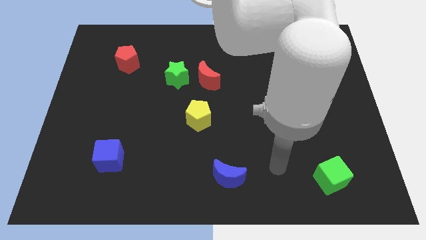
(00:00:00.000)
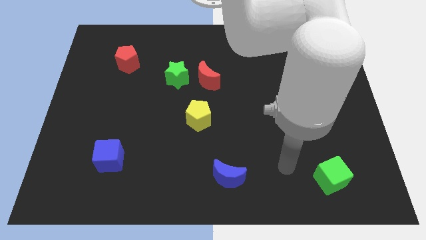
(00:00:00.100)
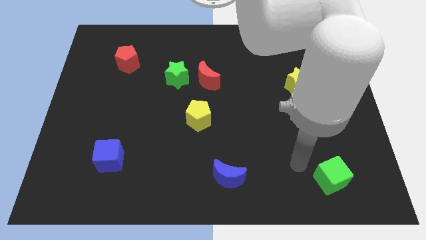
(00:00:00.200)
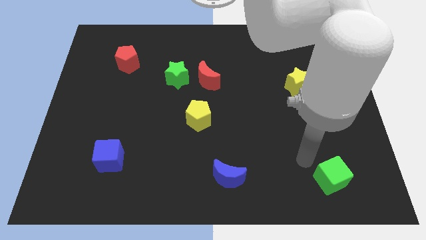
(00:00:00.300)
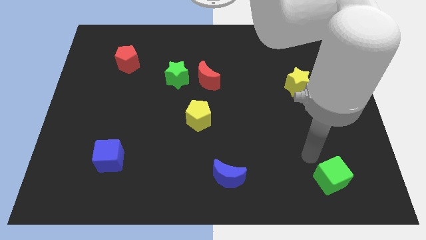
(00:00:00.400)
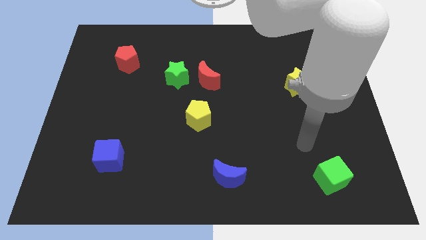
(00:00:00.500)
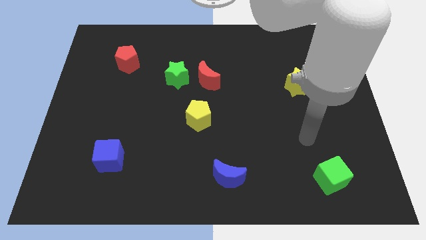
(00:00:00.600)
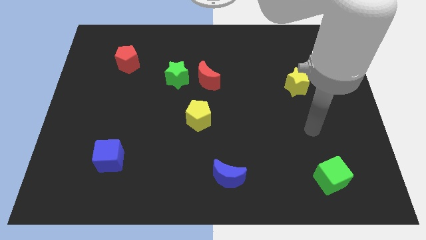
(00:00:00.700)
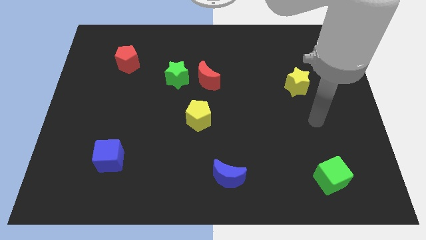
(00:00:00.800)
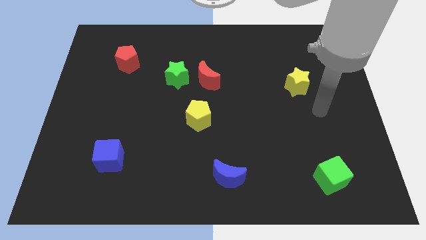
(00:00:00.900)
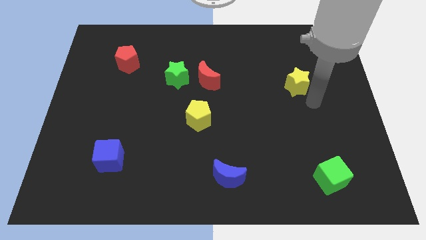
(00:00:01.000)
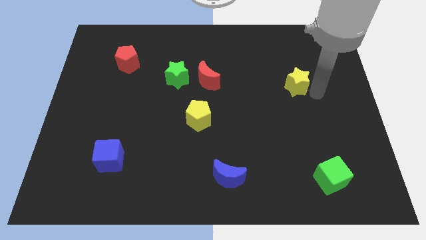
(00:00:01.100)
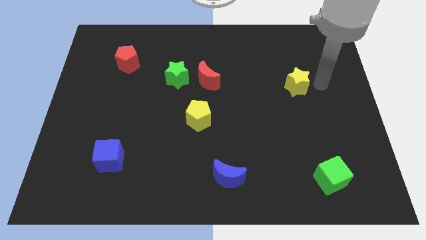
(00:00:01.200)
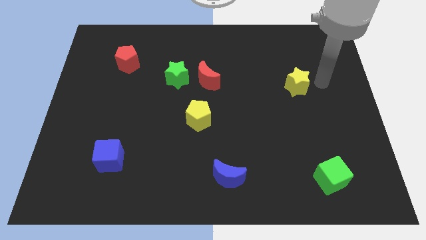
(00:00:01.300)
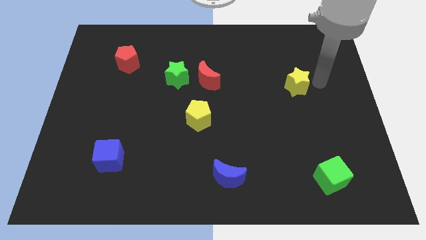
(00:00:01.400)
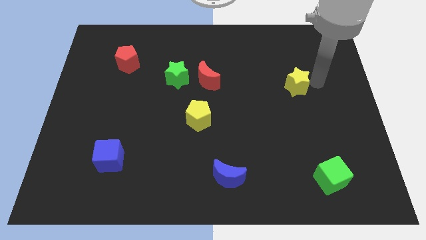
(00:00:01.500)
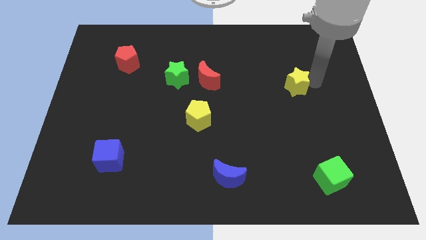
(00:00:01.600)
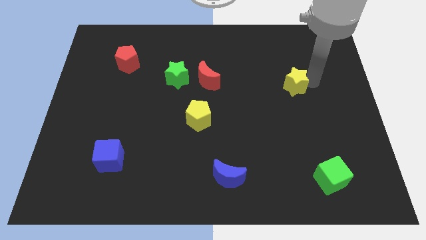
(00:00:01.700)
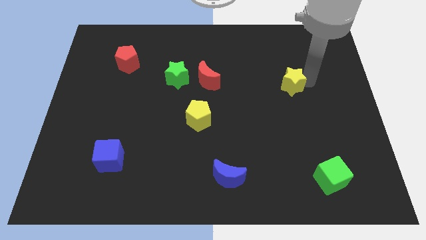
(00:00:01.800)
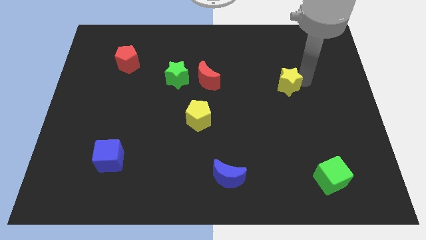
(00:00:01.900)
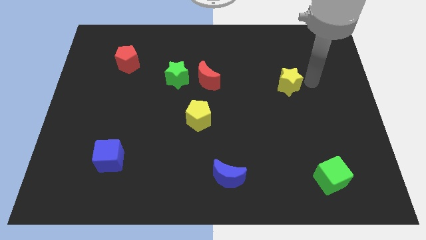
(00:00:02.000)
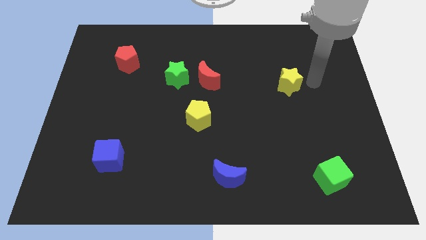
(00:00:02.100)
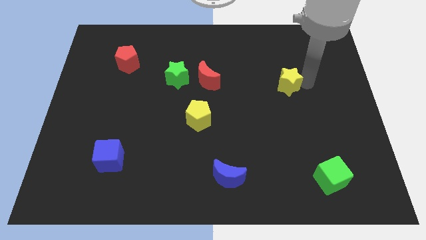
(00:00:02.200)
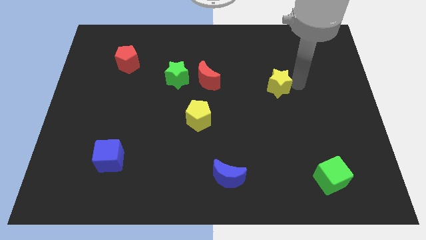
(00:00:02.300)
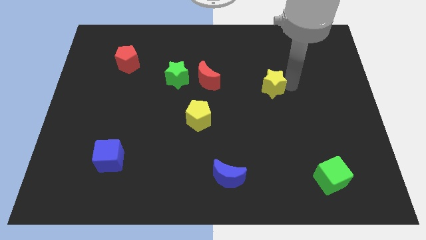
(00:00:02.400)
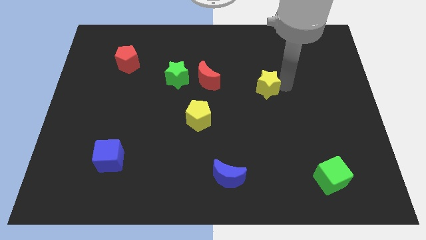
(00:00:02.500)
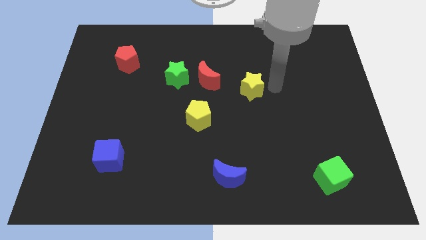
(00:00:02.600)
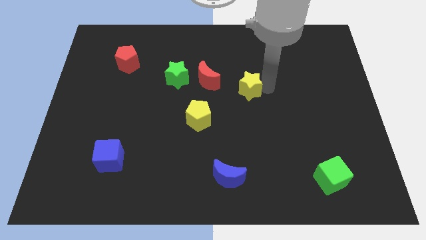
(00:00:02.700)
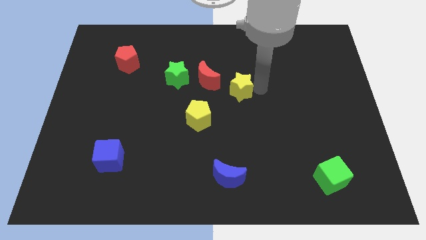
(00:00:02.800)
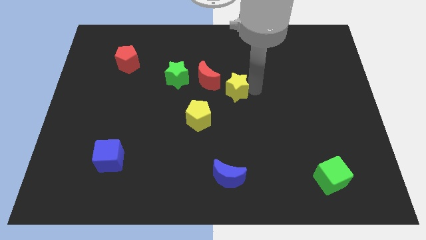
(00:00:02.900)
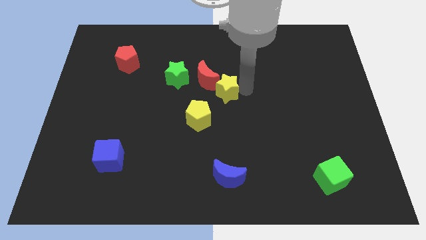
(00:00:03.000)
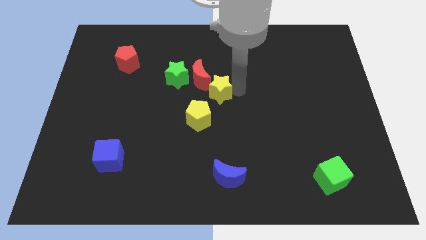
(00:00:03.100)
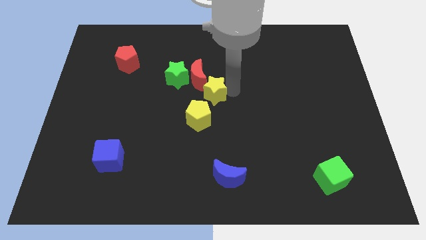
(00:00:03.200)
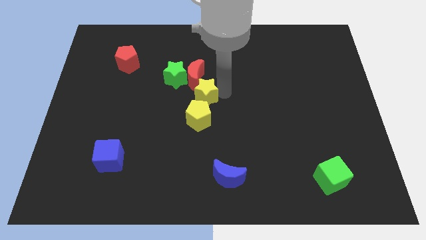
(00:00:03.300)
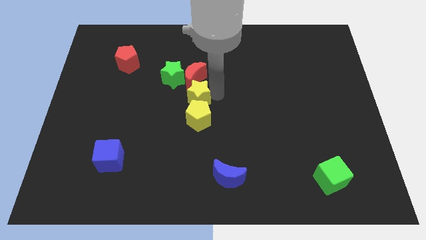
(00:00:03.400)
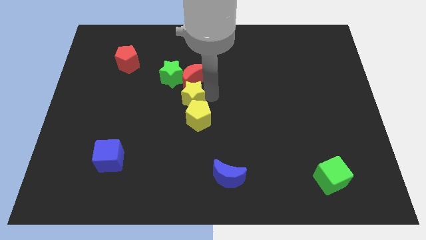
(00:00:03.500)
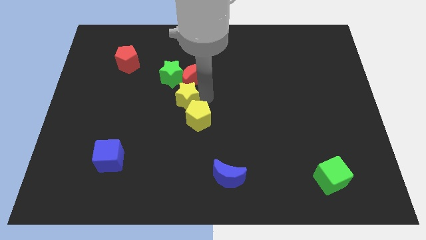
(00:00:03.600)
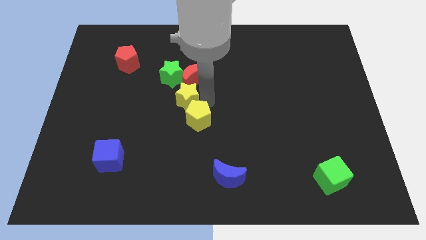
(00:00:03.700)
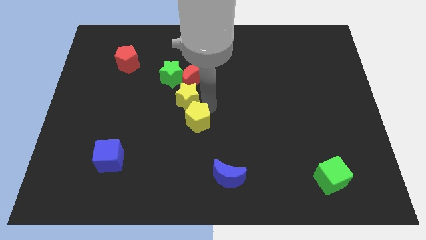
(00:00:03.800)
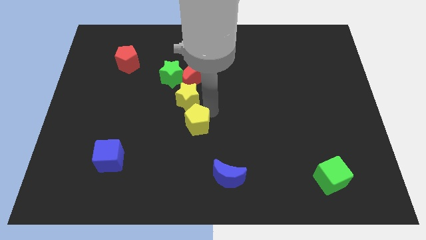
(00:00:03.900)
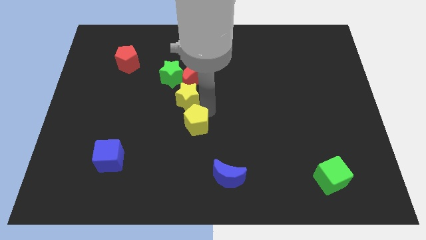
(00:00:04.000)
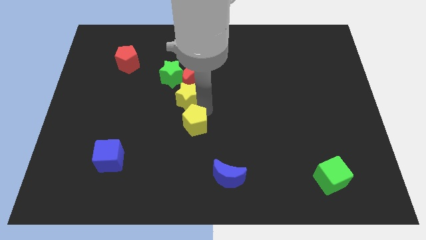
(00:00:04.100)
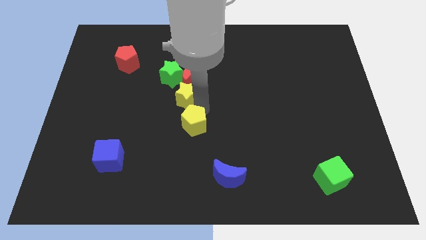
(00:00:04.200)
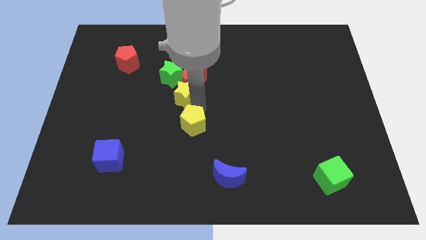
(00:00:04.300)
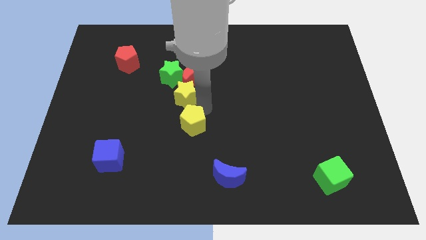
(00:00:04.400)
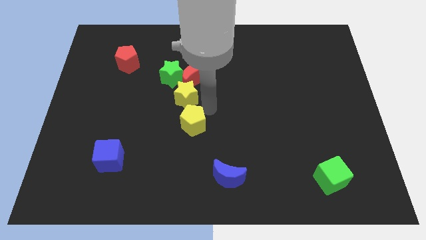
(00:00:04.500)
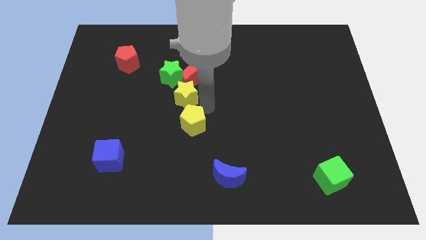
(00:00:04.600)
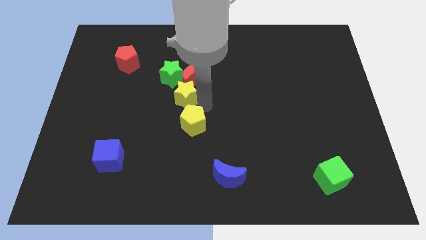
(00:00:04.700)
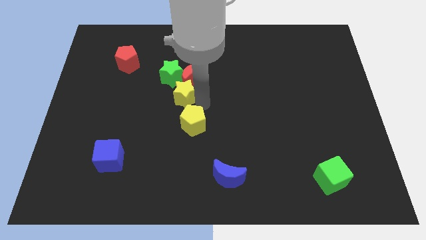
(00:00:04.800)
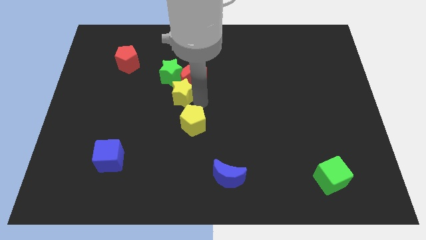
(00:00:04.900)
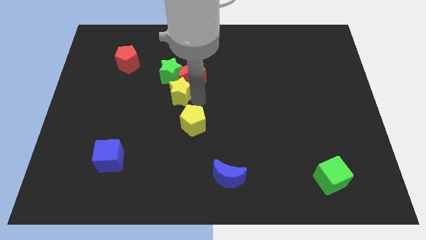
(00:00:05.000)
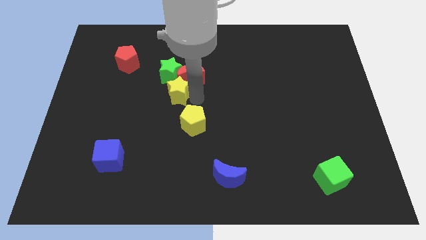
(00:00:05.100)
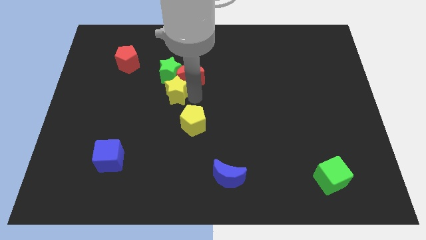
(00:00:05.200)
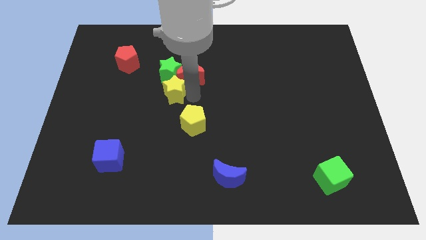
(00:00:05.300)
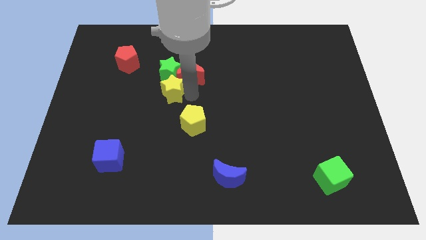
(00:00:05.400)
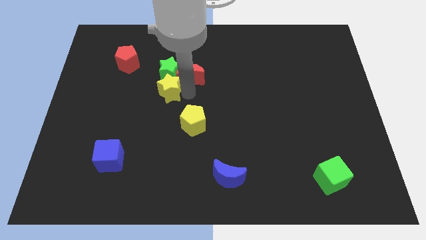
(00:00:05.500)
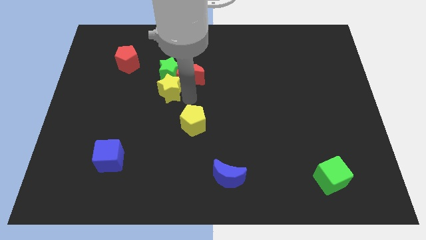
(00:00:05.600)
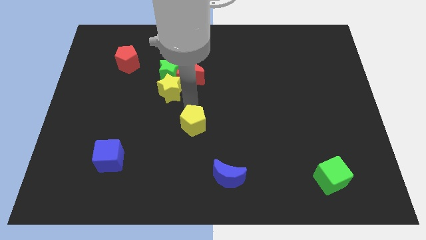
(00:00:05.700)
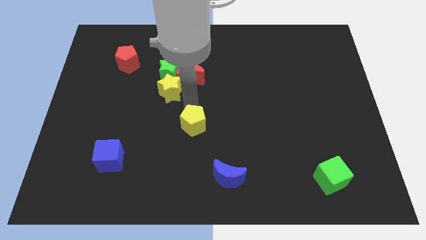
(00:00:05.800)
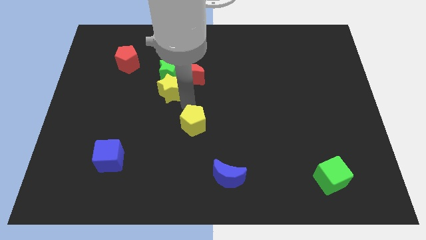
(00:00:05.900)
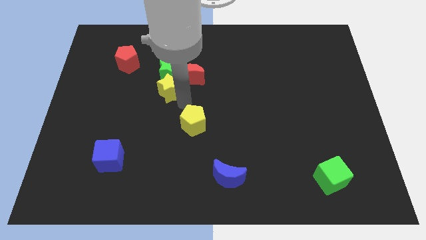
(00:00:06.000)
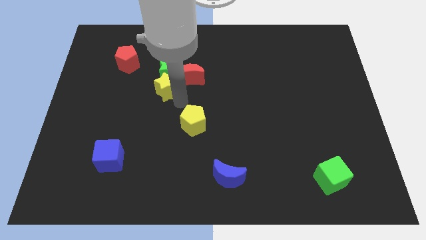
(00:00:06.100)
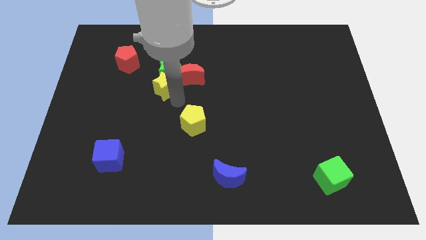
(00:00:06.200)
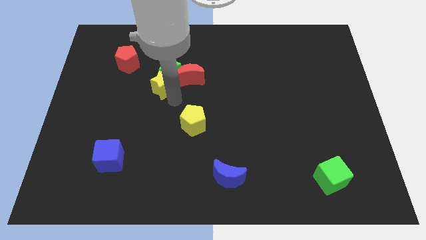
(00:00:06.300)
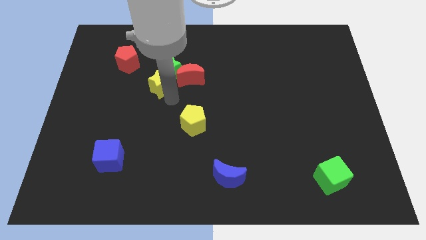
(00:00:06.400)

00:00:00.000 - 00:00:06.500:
put the yellow star diagonally down and to the right of the red pentagon

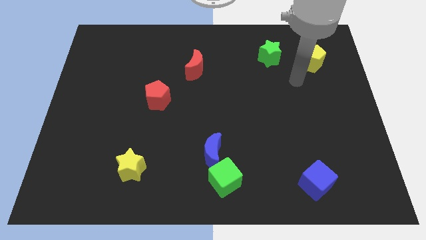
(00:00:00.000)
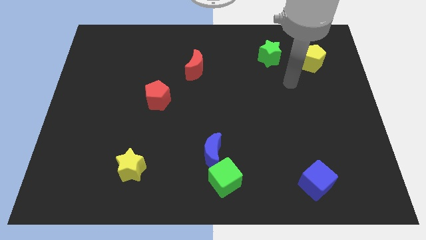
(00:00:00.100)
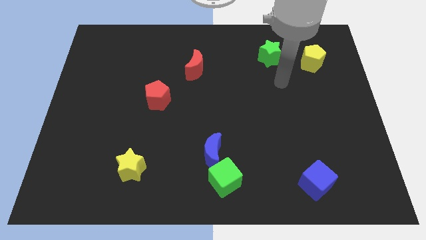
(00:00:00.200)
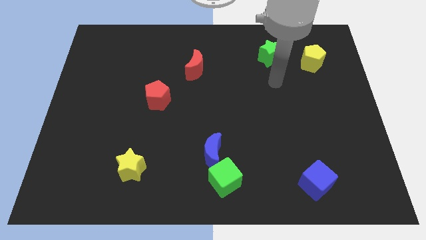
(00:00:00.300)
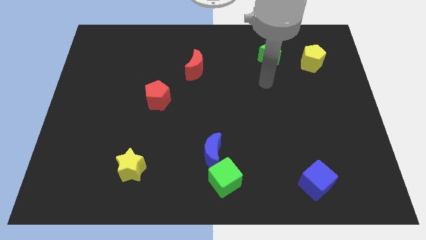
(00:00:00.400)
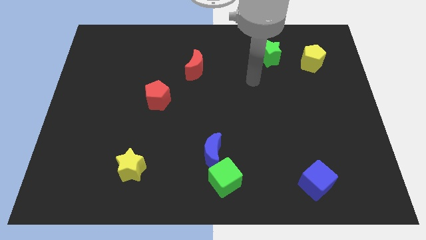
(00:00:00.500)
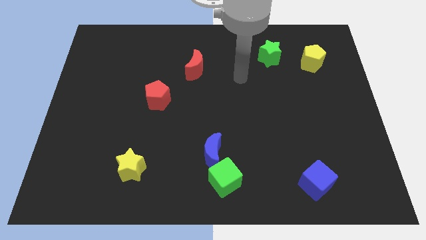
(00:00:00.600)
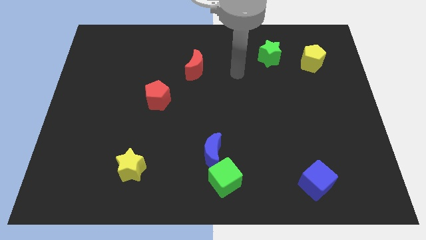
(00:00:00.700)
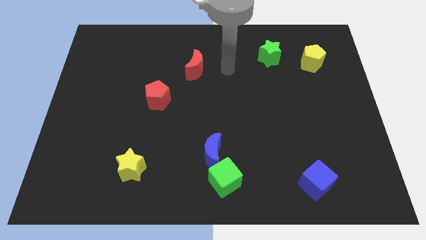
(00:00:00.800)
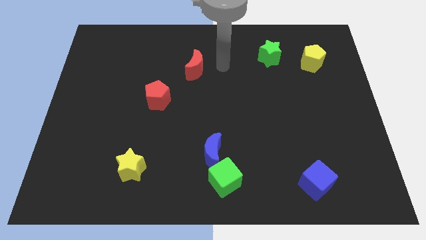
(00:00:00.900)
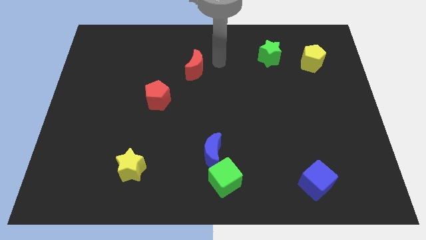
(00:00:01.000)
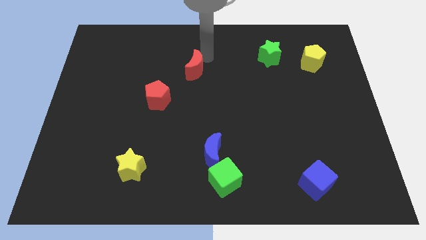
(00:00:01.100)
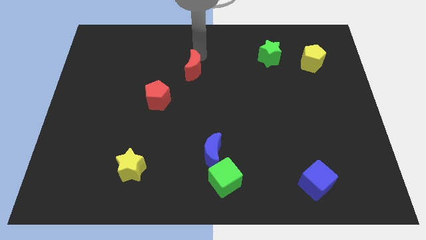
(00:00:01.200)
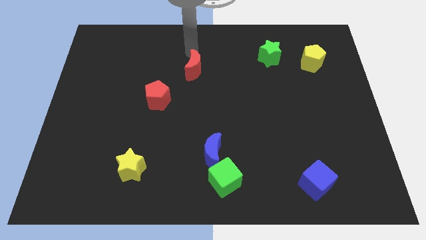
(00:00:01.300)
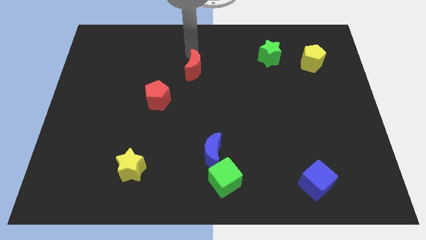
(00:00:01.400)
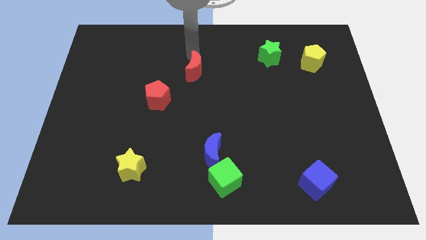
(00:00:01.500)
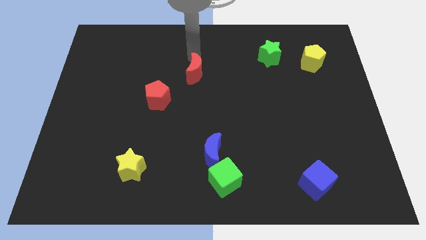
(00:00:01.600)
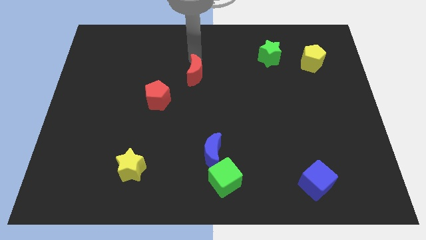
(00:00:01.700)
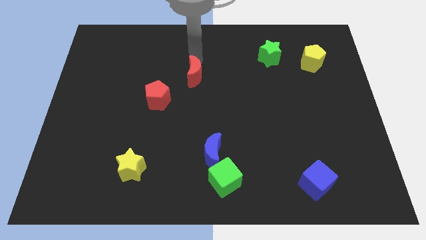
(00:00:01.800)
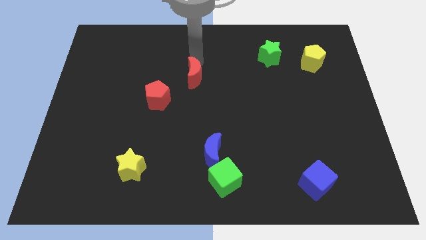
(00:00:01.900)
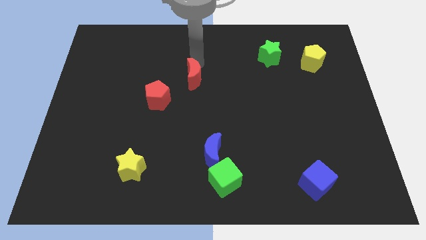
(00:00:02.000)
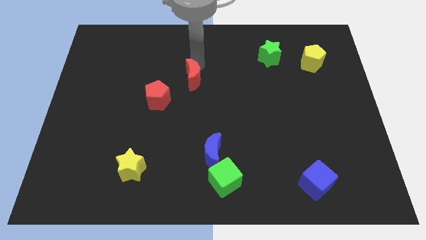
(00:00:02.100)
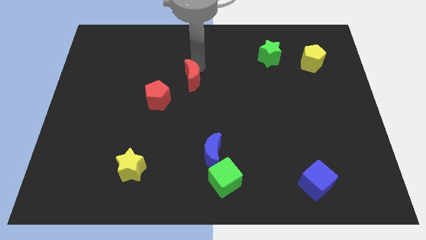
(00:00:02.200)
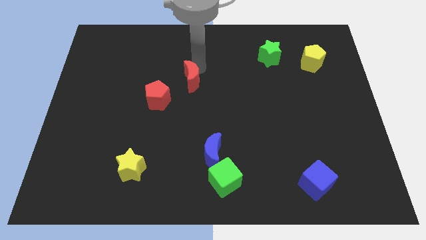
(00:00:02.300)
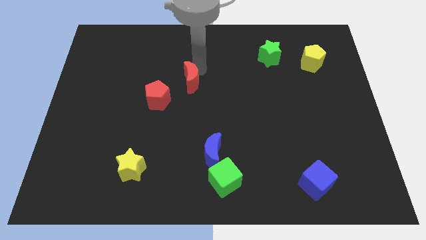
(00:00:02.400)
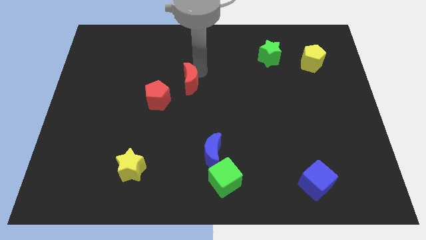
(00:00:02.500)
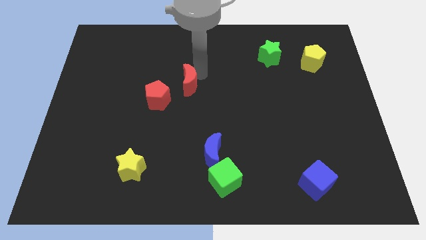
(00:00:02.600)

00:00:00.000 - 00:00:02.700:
put the red moon right of the red pentagon
